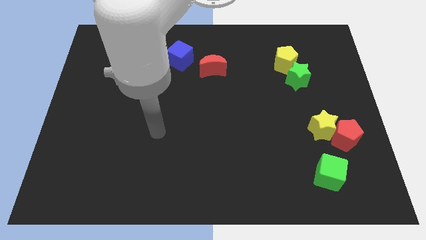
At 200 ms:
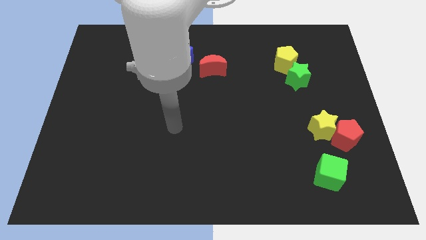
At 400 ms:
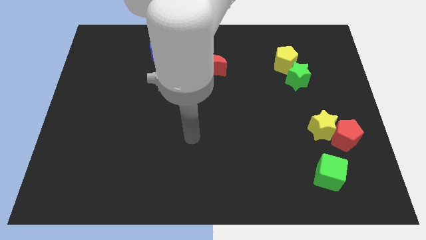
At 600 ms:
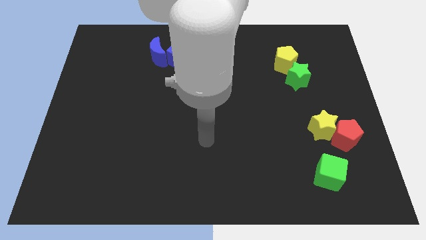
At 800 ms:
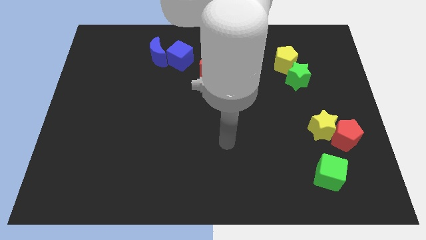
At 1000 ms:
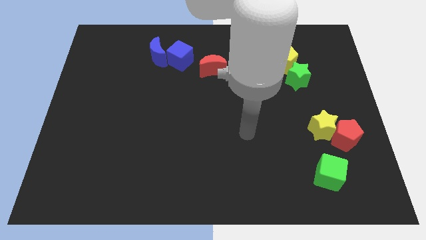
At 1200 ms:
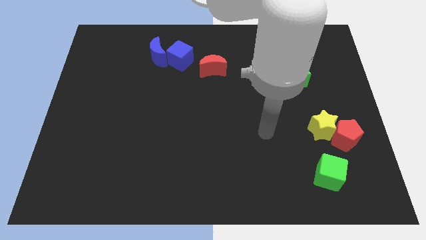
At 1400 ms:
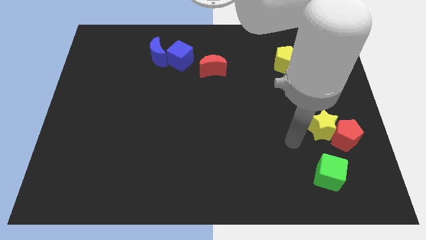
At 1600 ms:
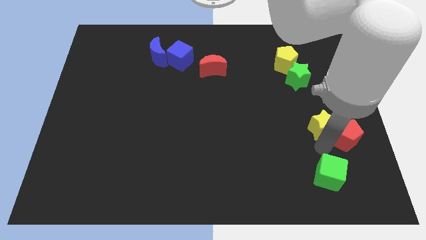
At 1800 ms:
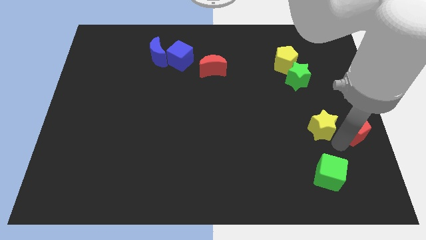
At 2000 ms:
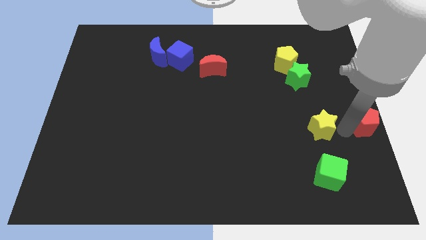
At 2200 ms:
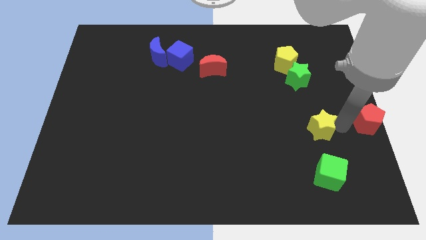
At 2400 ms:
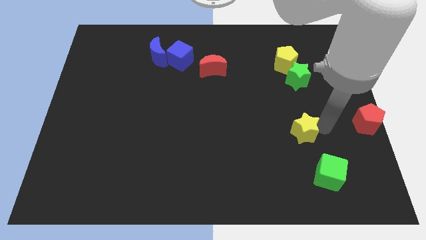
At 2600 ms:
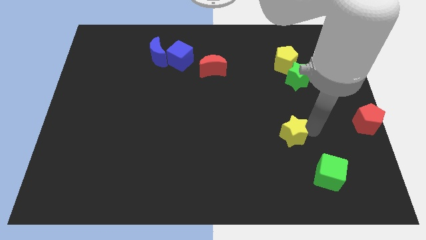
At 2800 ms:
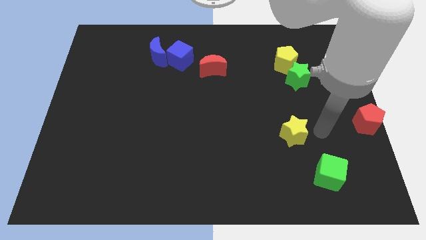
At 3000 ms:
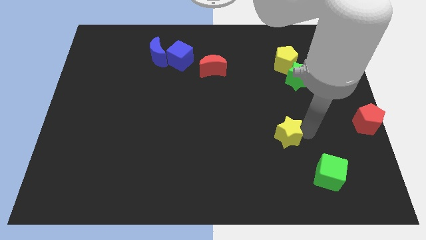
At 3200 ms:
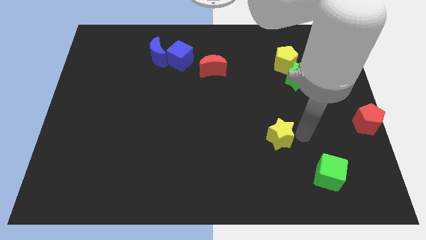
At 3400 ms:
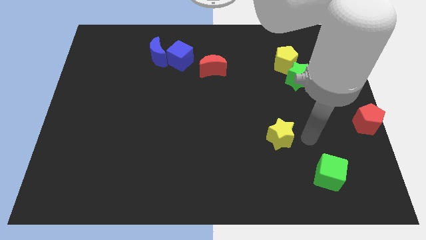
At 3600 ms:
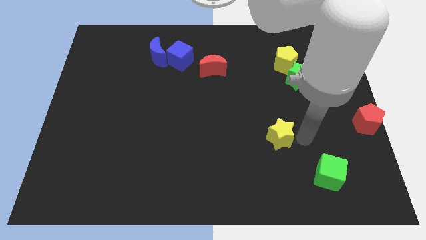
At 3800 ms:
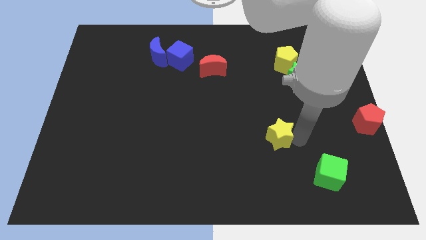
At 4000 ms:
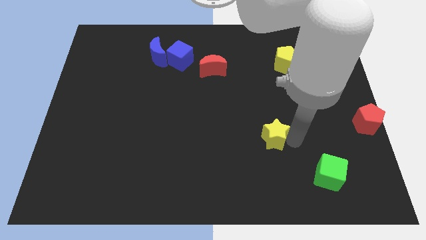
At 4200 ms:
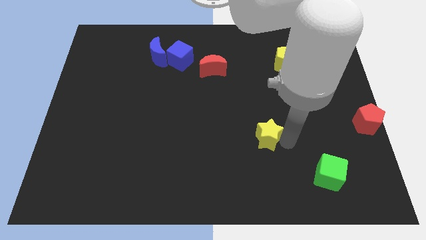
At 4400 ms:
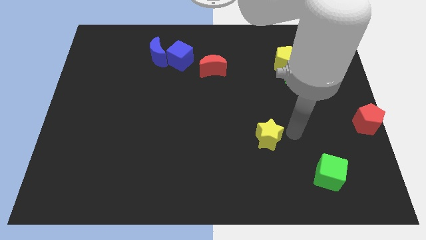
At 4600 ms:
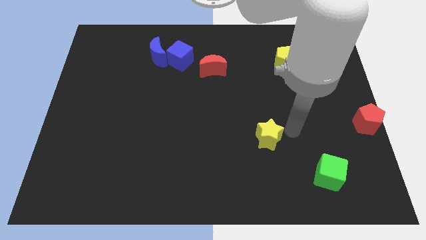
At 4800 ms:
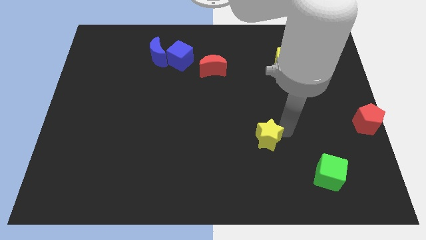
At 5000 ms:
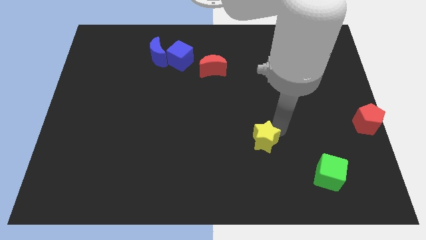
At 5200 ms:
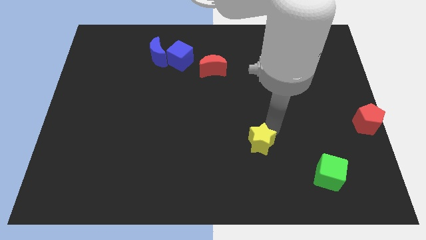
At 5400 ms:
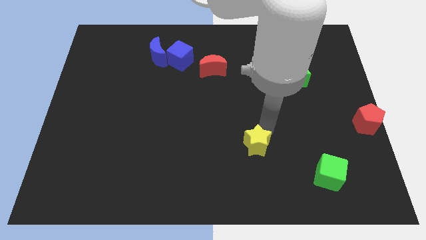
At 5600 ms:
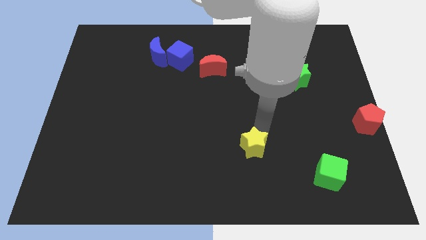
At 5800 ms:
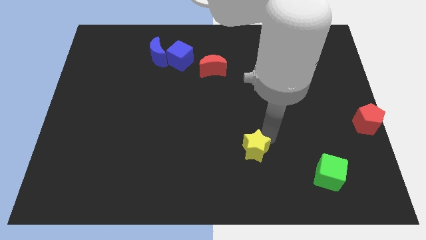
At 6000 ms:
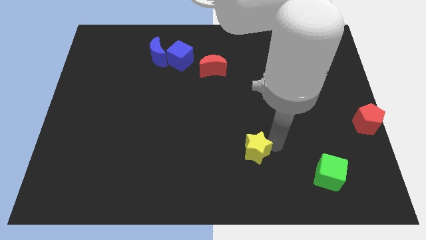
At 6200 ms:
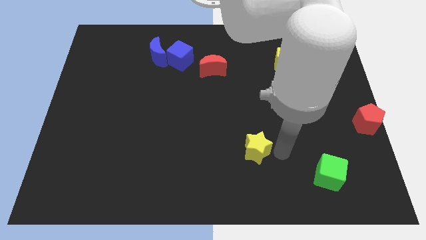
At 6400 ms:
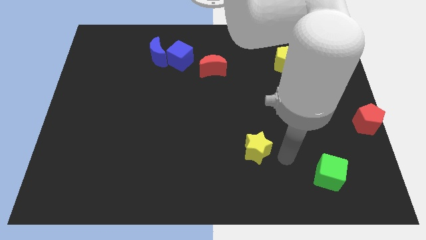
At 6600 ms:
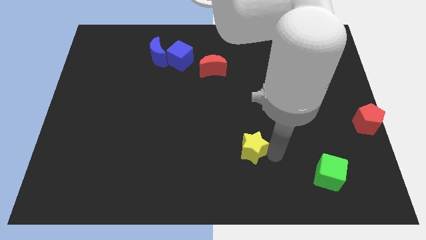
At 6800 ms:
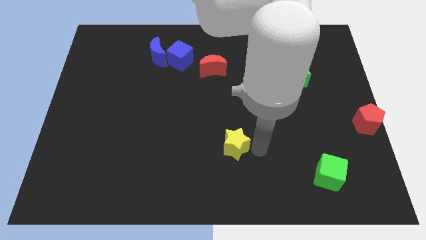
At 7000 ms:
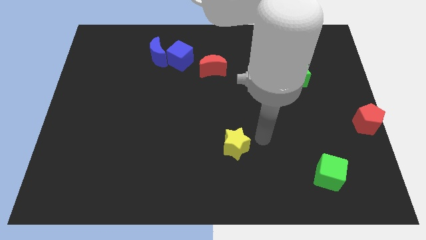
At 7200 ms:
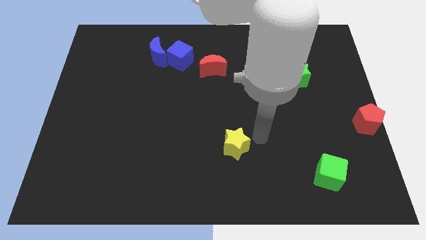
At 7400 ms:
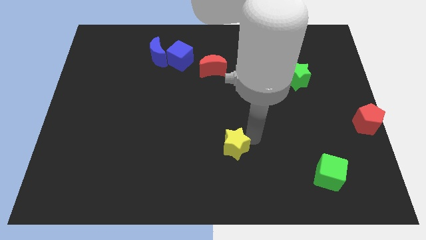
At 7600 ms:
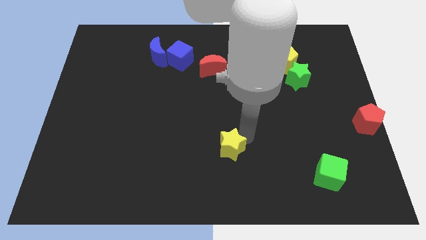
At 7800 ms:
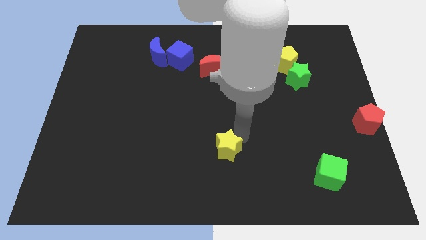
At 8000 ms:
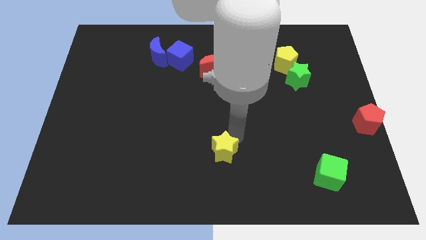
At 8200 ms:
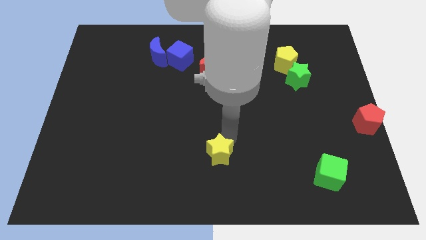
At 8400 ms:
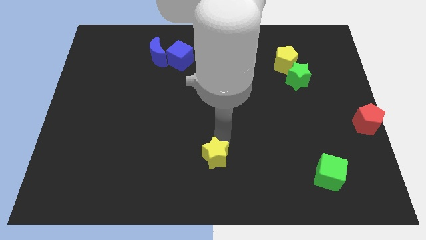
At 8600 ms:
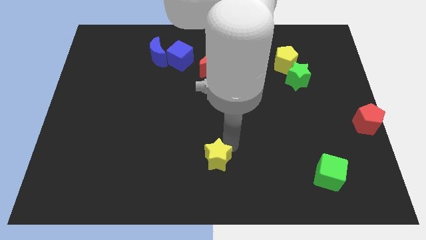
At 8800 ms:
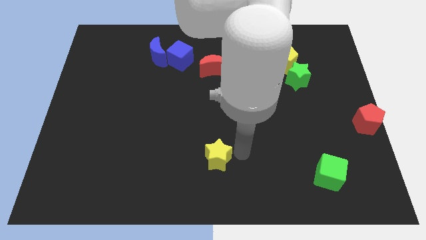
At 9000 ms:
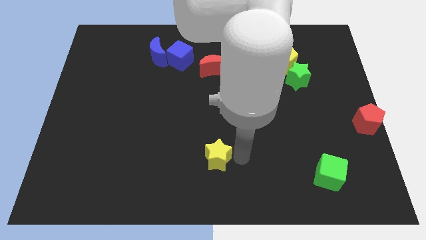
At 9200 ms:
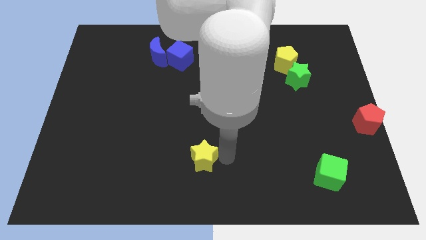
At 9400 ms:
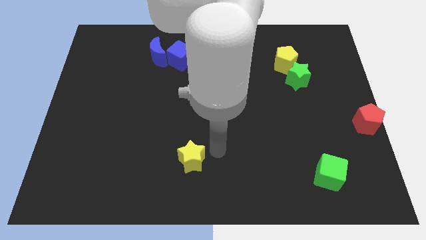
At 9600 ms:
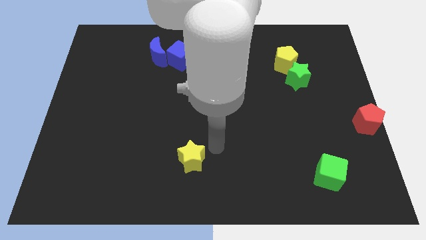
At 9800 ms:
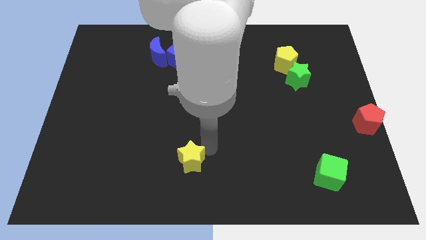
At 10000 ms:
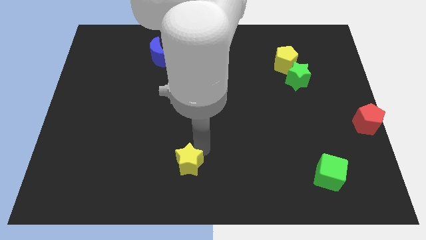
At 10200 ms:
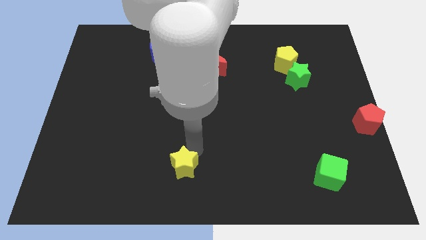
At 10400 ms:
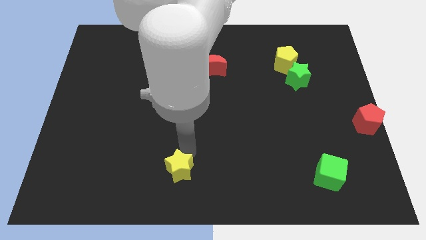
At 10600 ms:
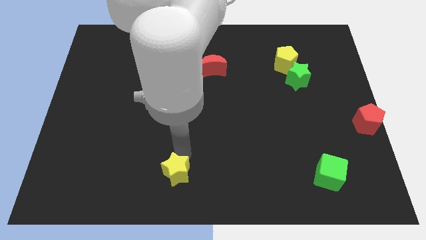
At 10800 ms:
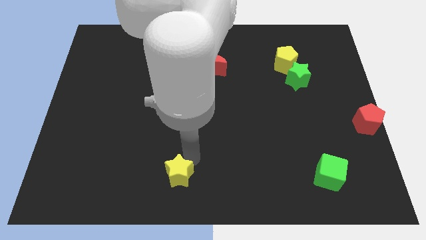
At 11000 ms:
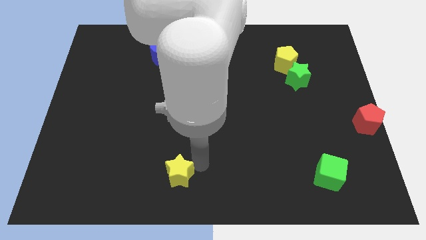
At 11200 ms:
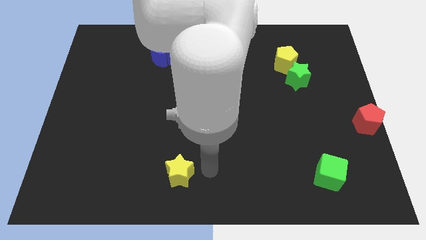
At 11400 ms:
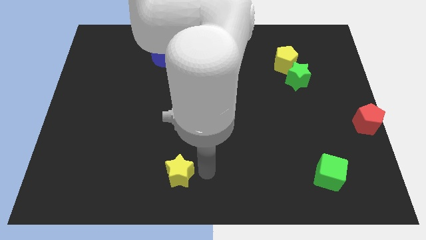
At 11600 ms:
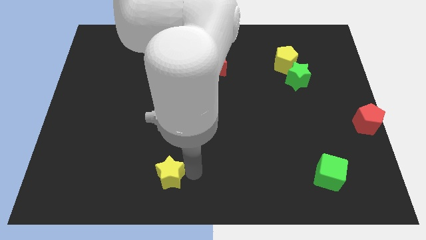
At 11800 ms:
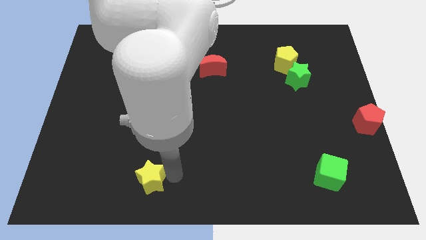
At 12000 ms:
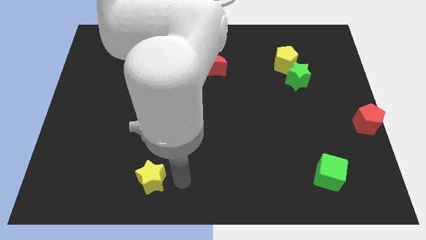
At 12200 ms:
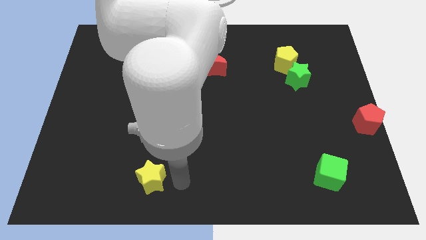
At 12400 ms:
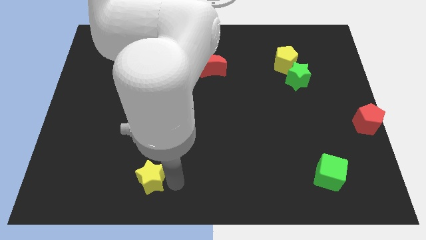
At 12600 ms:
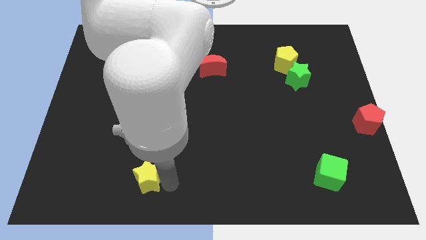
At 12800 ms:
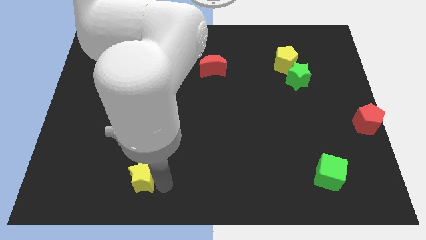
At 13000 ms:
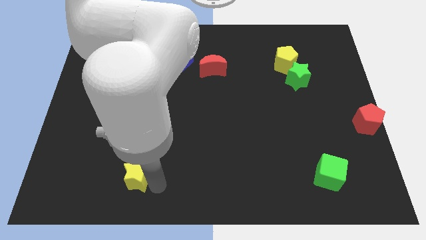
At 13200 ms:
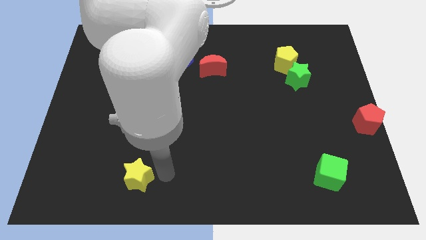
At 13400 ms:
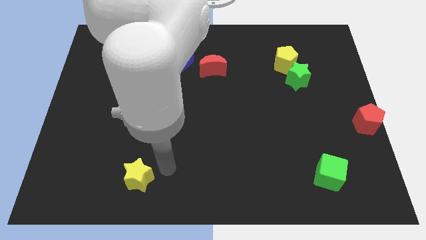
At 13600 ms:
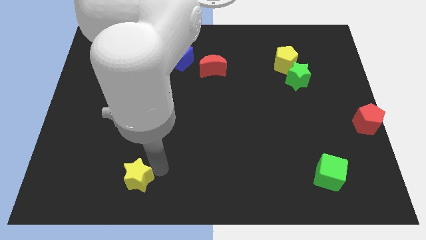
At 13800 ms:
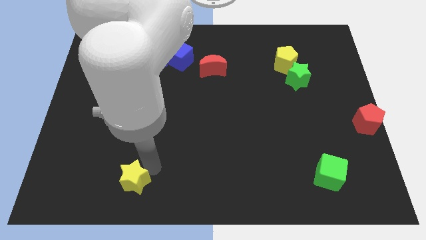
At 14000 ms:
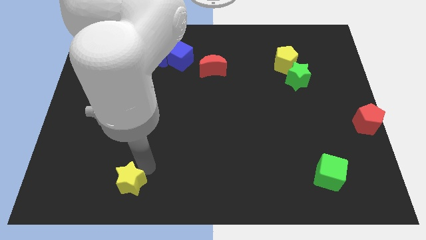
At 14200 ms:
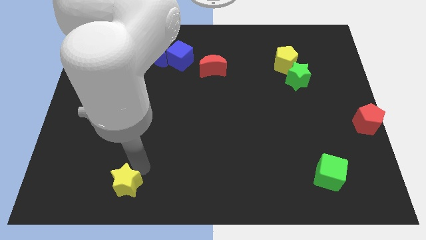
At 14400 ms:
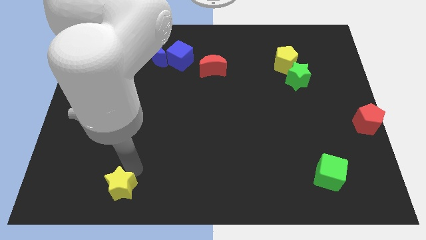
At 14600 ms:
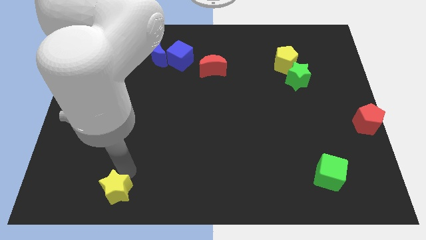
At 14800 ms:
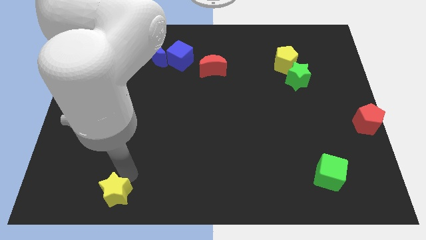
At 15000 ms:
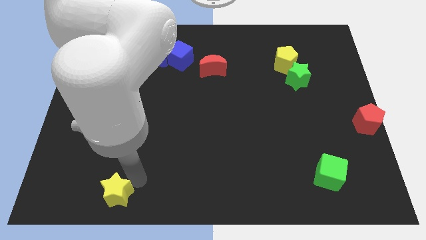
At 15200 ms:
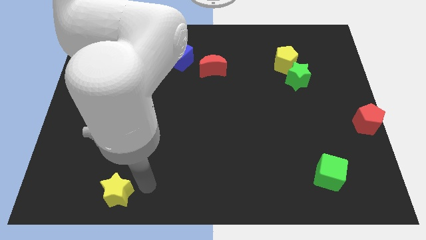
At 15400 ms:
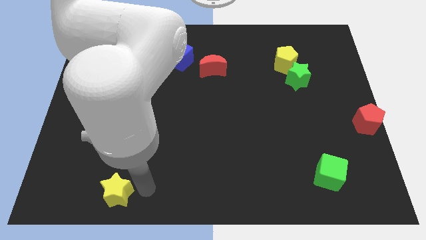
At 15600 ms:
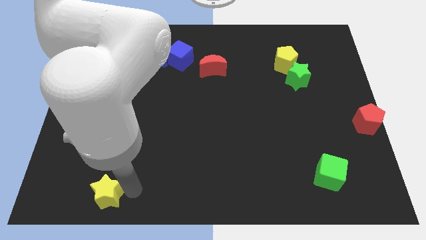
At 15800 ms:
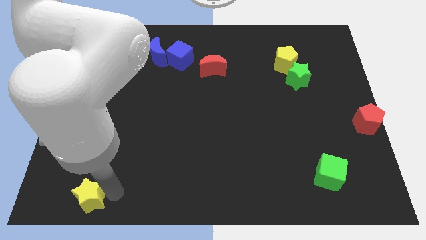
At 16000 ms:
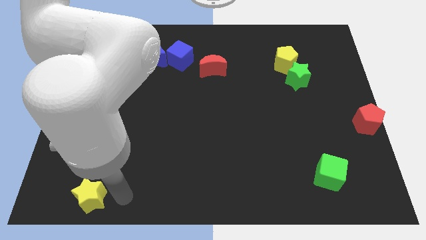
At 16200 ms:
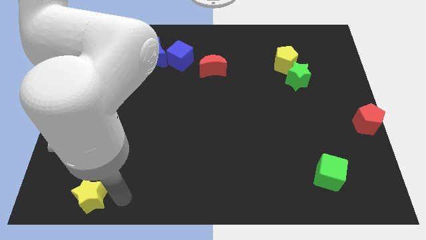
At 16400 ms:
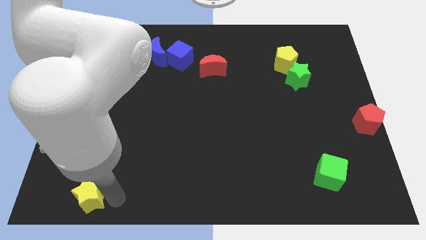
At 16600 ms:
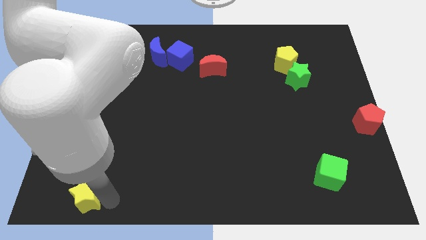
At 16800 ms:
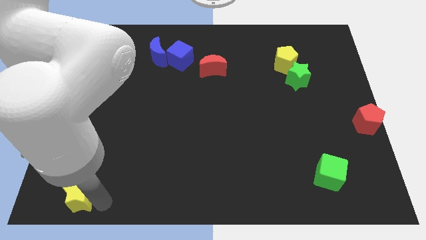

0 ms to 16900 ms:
put the yellow star to the bottom left
